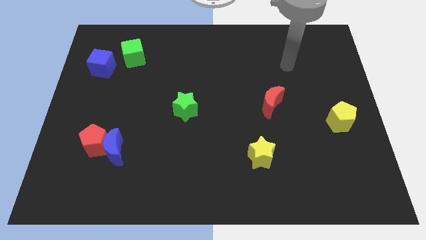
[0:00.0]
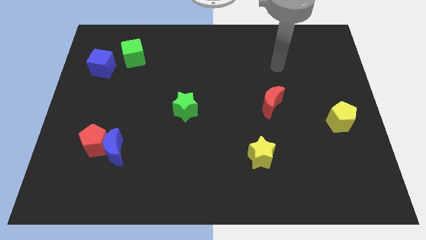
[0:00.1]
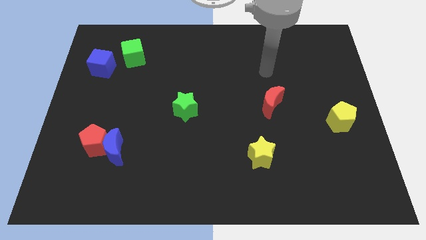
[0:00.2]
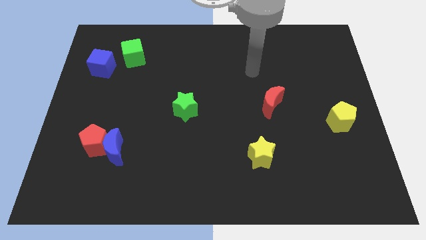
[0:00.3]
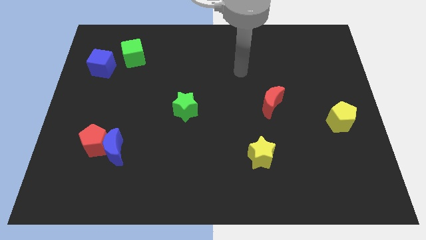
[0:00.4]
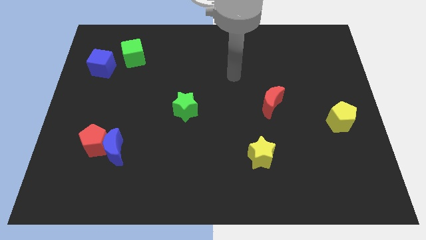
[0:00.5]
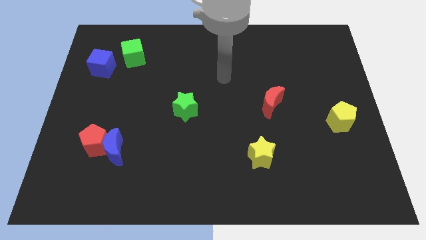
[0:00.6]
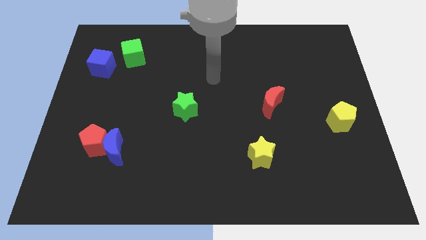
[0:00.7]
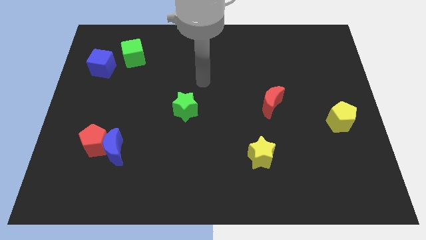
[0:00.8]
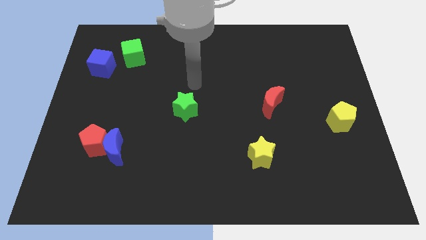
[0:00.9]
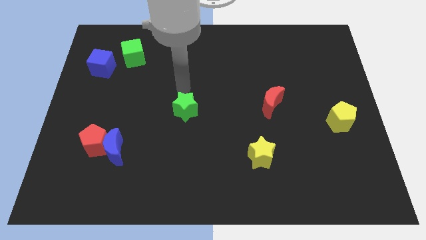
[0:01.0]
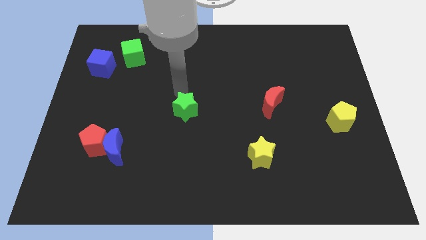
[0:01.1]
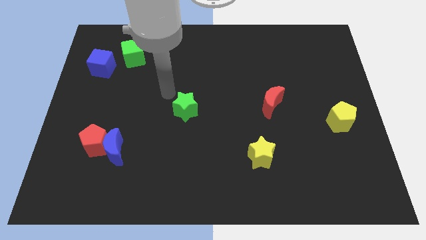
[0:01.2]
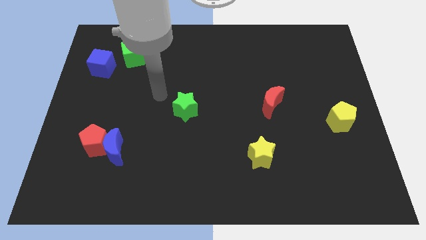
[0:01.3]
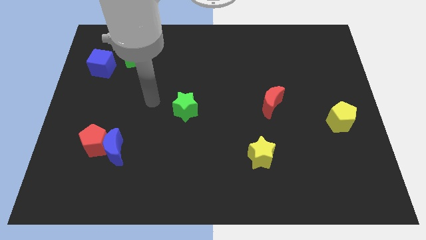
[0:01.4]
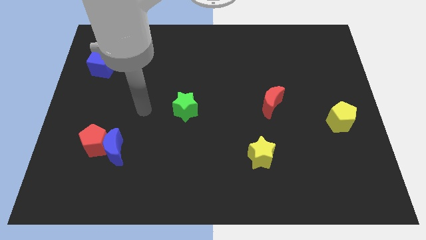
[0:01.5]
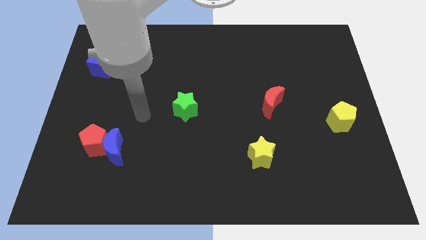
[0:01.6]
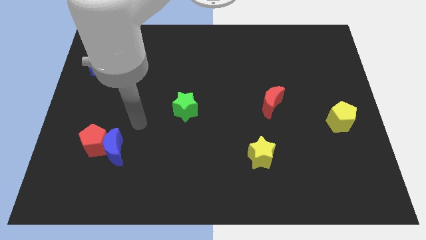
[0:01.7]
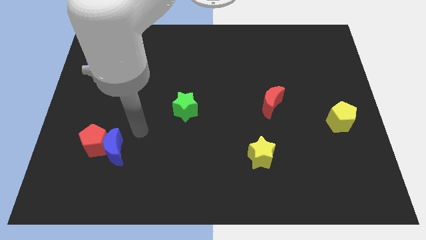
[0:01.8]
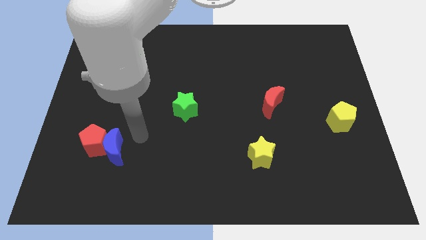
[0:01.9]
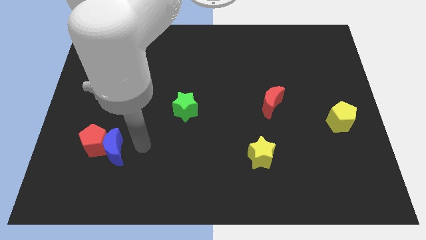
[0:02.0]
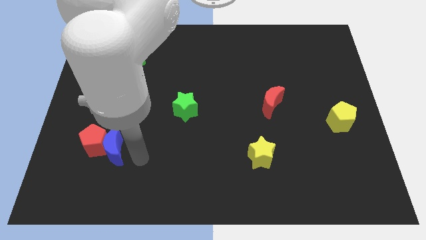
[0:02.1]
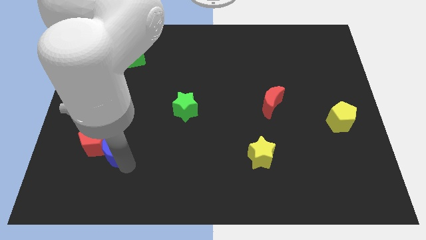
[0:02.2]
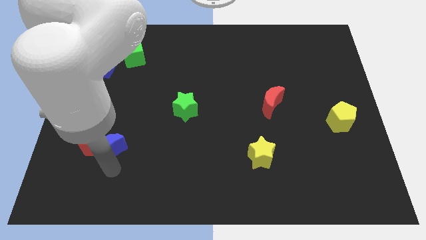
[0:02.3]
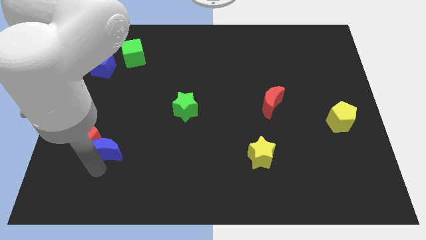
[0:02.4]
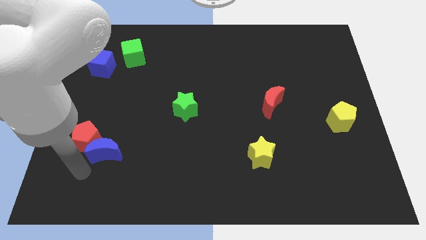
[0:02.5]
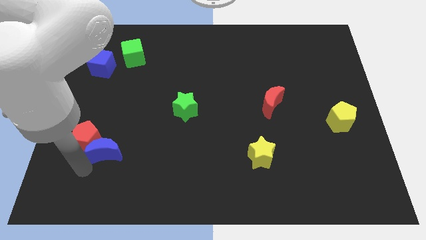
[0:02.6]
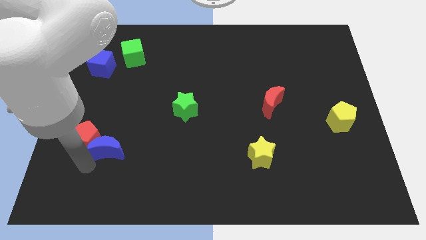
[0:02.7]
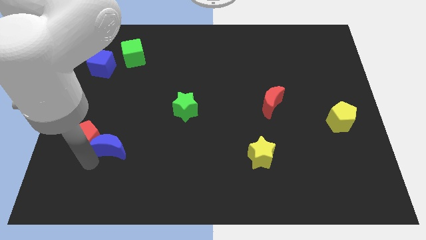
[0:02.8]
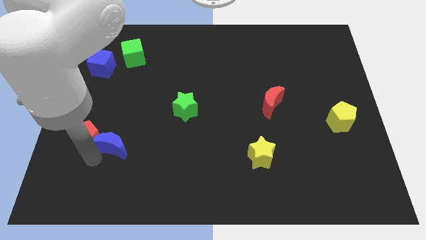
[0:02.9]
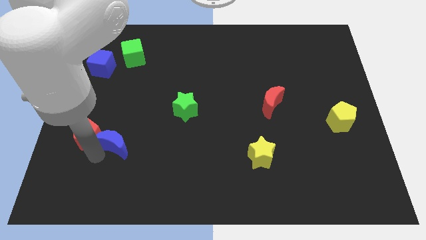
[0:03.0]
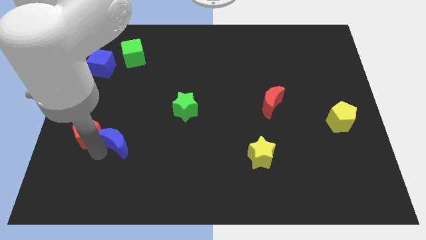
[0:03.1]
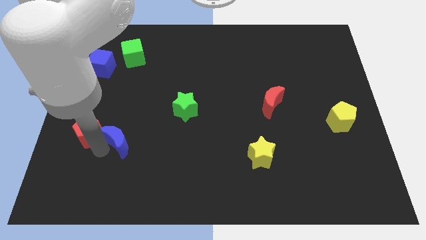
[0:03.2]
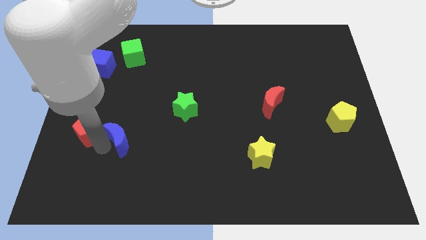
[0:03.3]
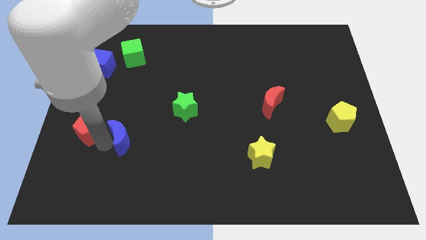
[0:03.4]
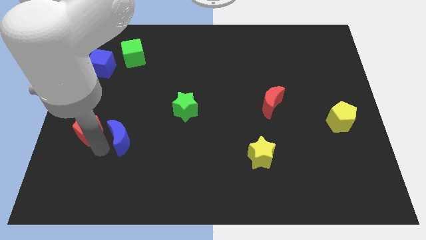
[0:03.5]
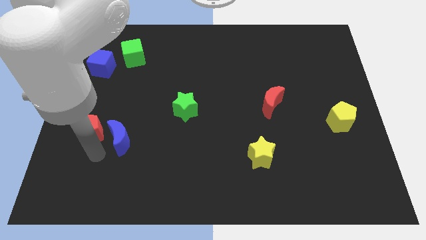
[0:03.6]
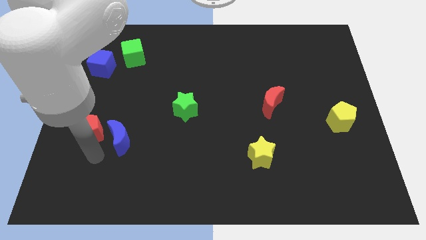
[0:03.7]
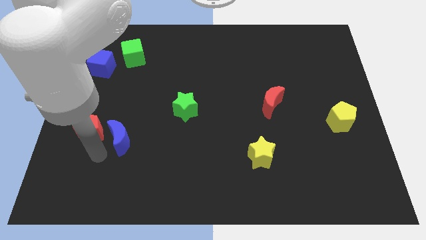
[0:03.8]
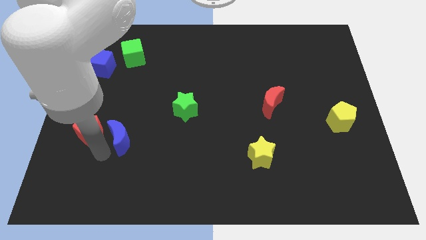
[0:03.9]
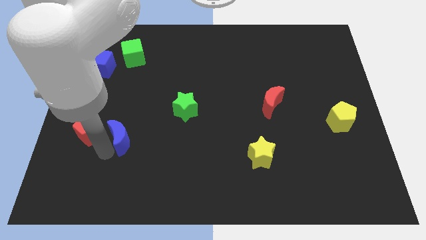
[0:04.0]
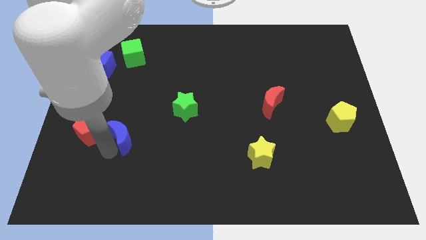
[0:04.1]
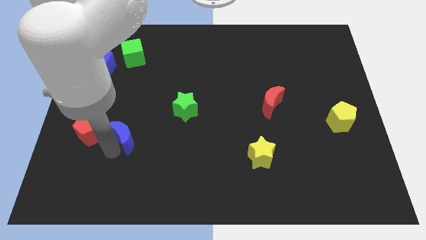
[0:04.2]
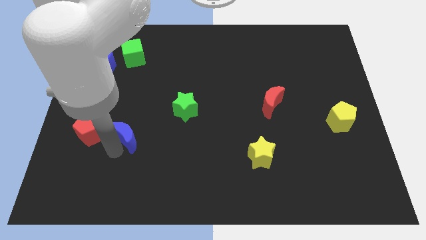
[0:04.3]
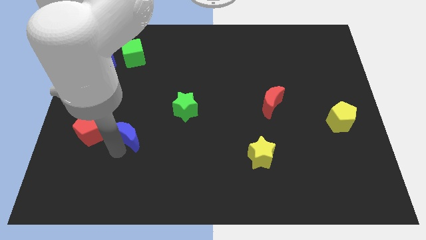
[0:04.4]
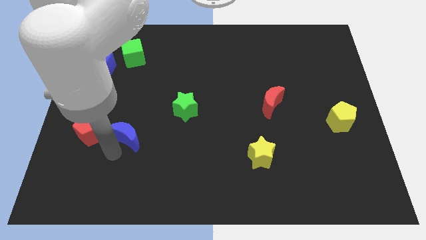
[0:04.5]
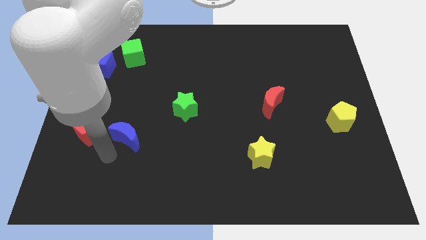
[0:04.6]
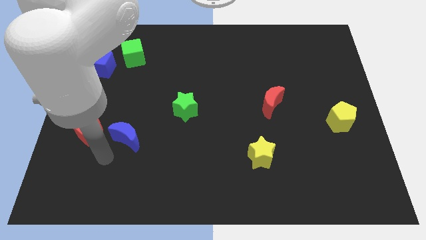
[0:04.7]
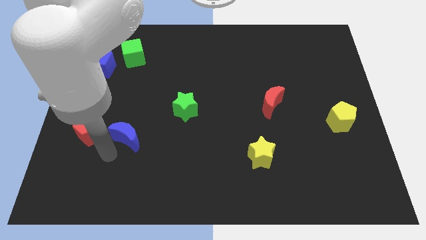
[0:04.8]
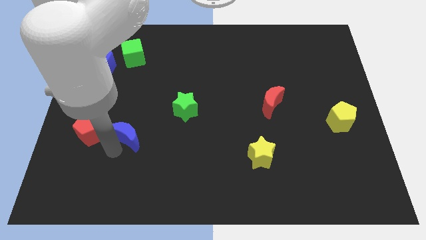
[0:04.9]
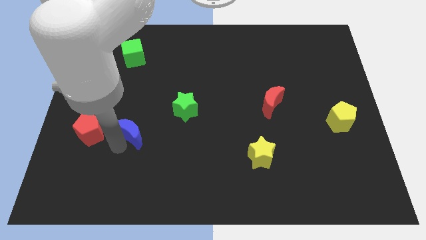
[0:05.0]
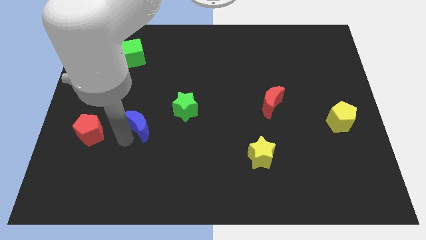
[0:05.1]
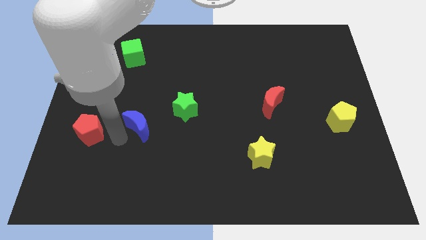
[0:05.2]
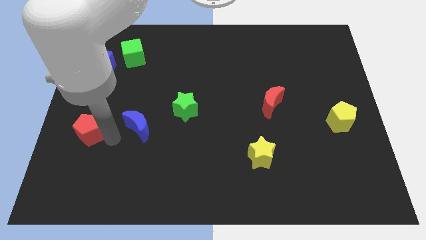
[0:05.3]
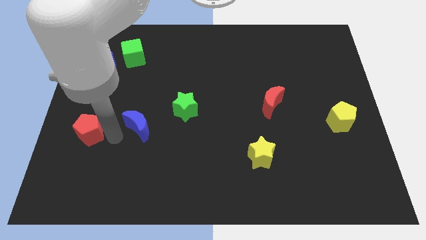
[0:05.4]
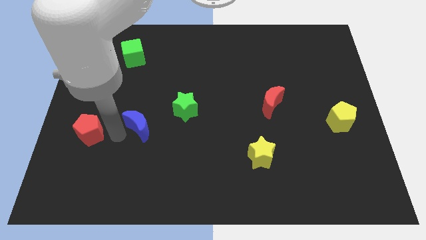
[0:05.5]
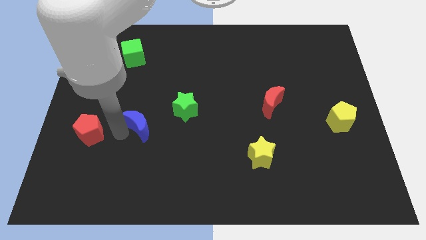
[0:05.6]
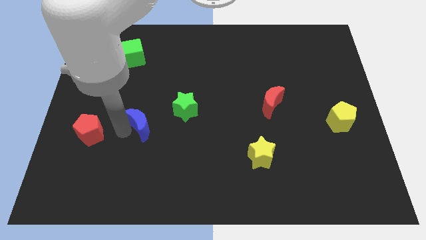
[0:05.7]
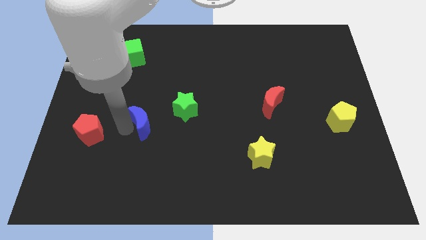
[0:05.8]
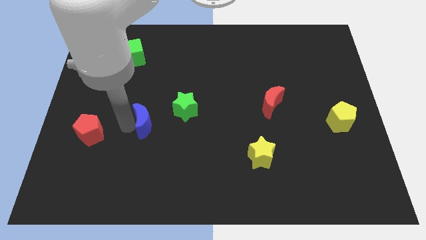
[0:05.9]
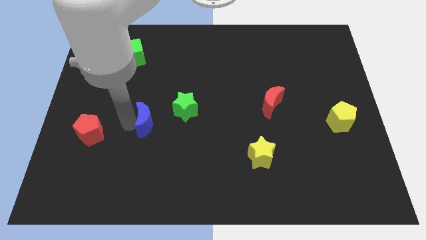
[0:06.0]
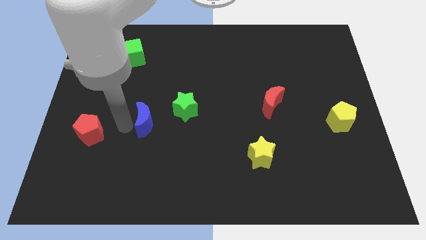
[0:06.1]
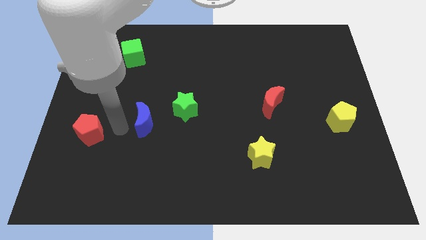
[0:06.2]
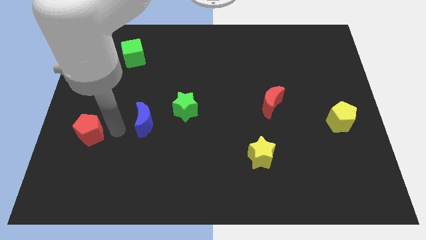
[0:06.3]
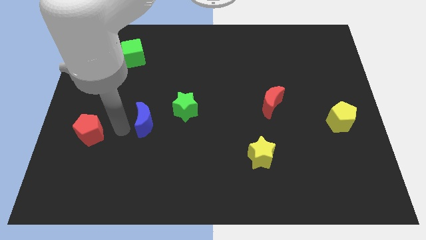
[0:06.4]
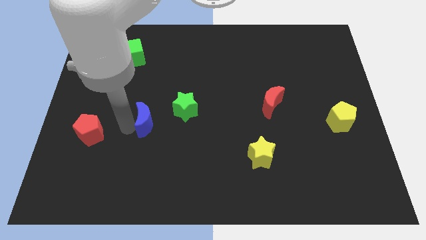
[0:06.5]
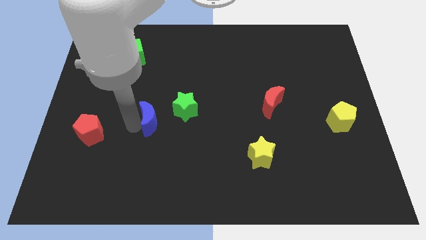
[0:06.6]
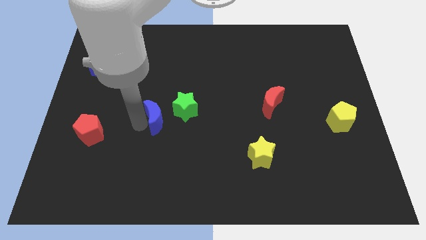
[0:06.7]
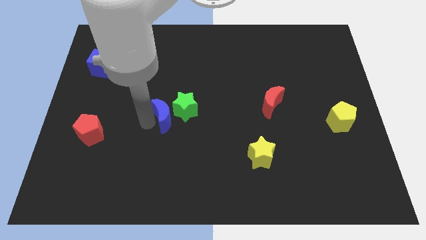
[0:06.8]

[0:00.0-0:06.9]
put the blue moon to the green star

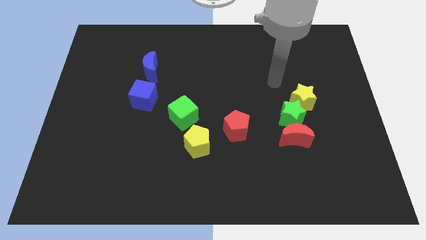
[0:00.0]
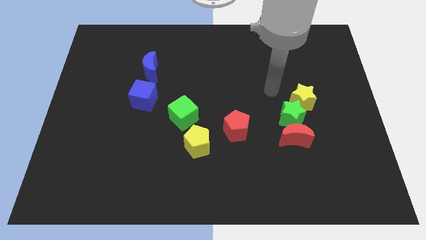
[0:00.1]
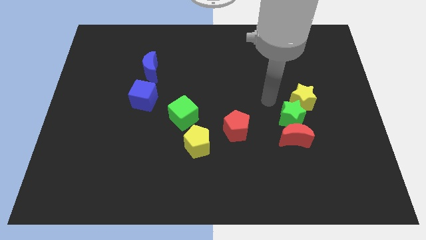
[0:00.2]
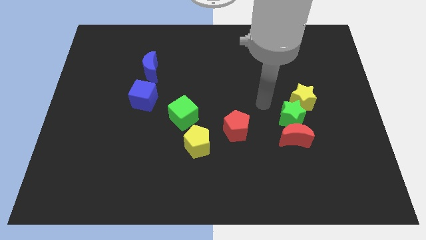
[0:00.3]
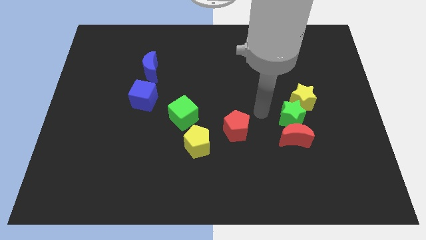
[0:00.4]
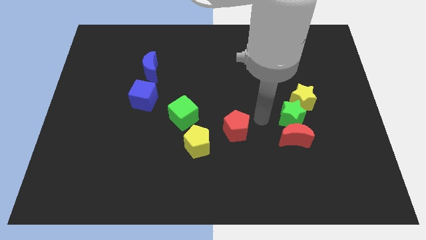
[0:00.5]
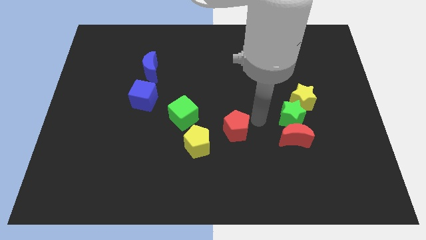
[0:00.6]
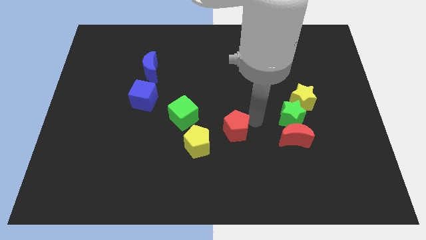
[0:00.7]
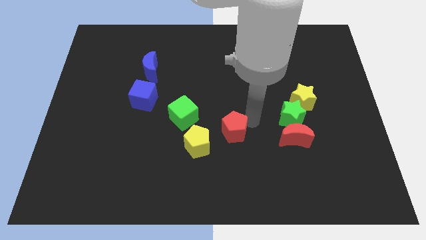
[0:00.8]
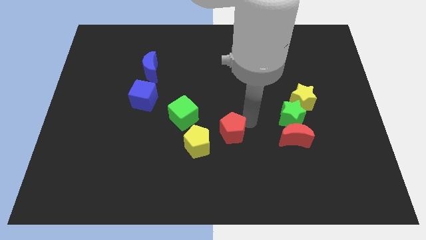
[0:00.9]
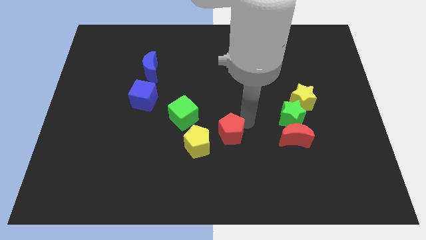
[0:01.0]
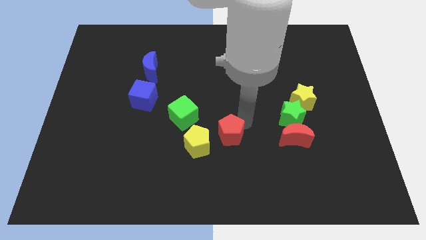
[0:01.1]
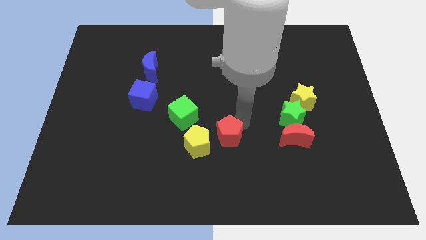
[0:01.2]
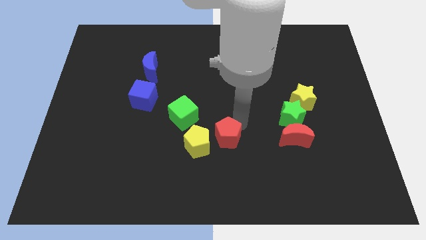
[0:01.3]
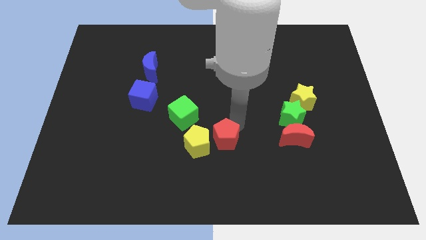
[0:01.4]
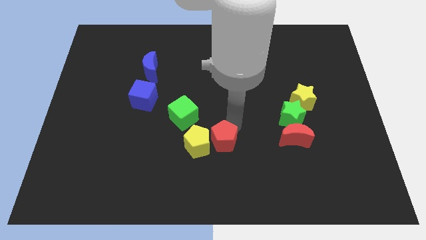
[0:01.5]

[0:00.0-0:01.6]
push the red pentagon next to the yellow pentagon
